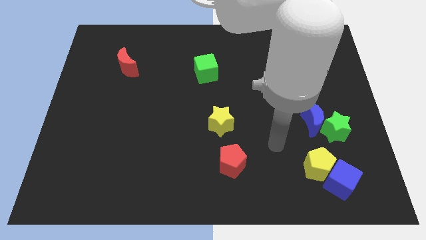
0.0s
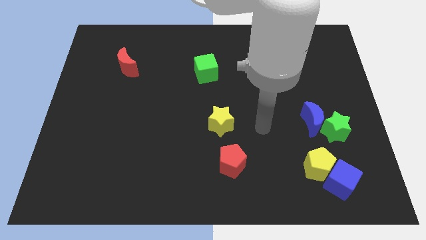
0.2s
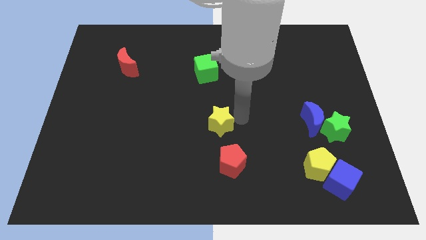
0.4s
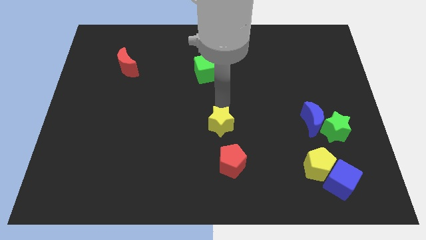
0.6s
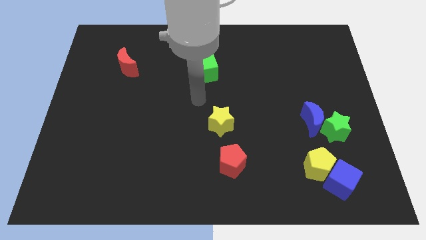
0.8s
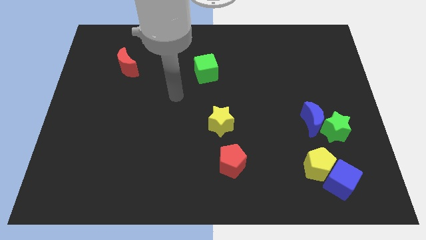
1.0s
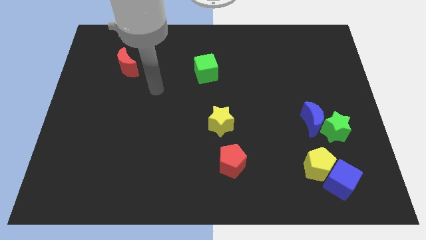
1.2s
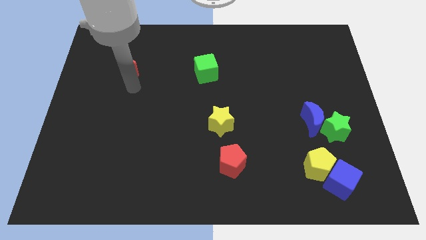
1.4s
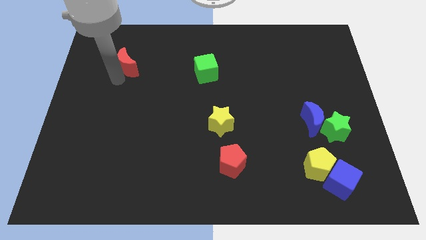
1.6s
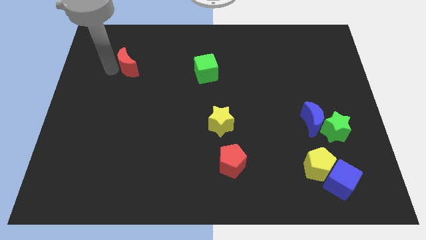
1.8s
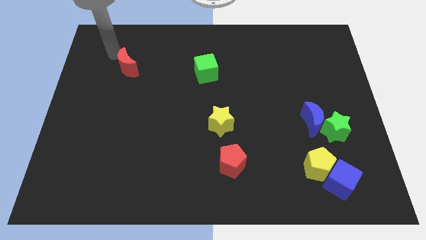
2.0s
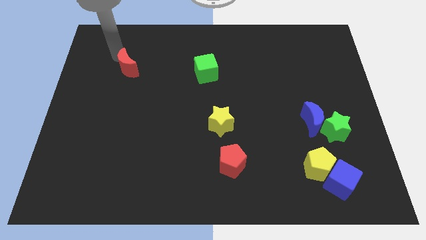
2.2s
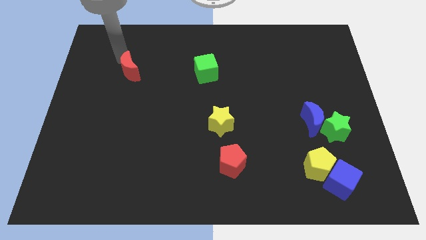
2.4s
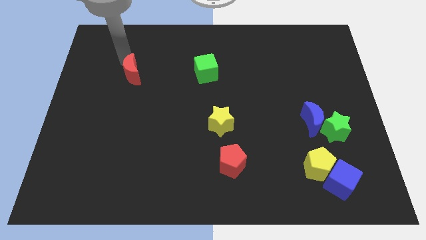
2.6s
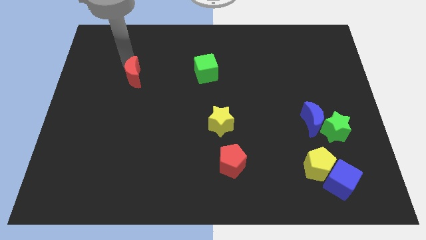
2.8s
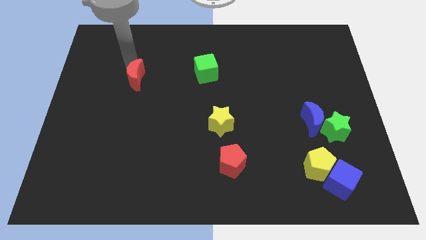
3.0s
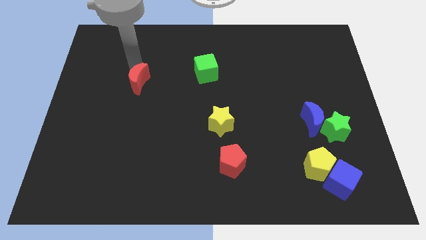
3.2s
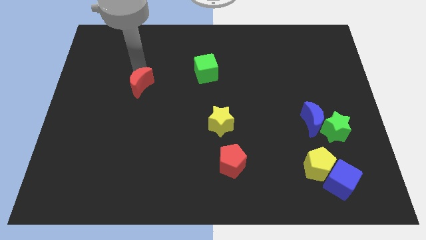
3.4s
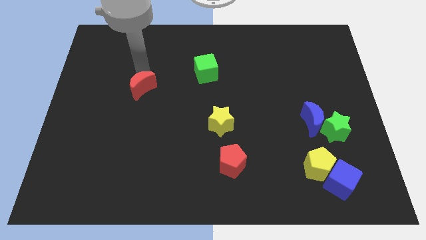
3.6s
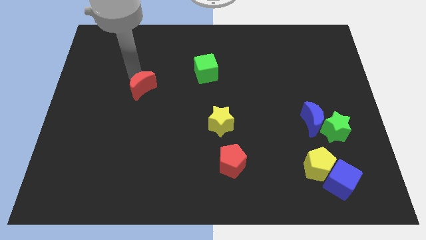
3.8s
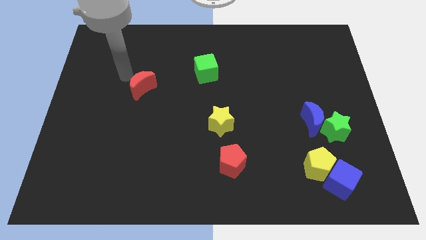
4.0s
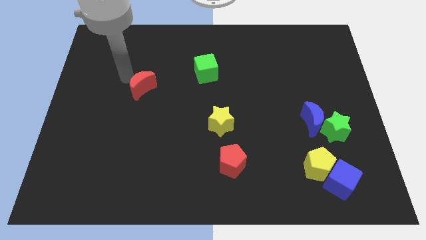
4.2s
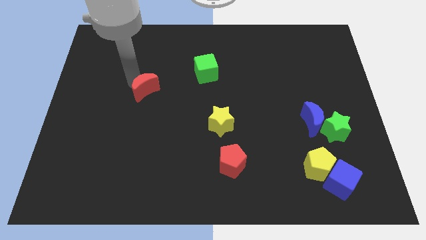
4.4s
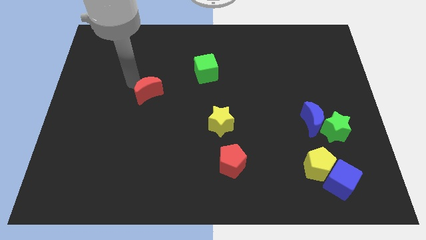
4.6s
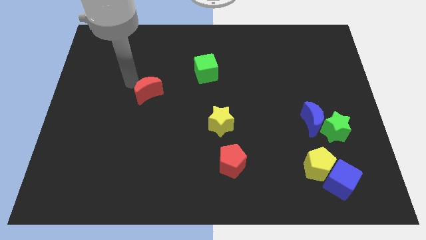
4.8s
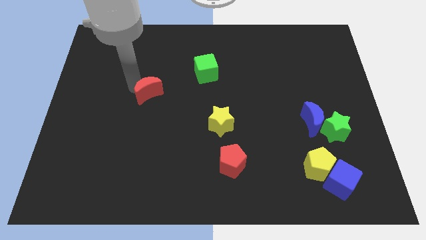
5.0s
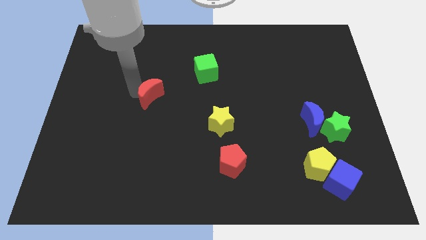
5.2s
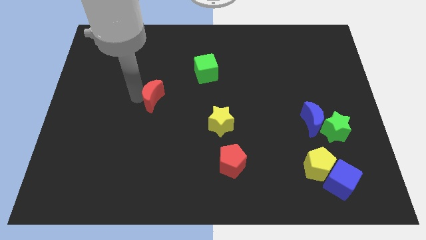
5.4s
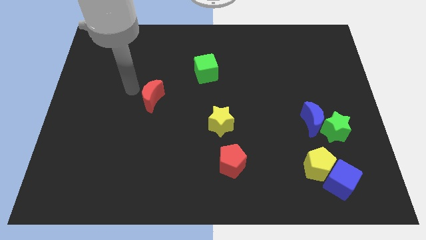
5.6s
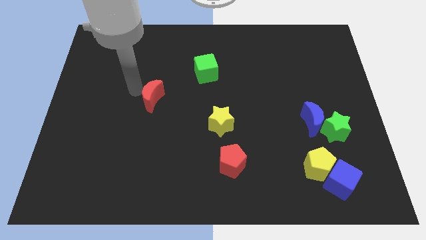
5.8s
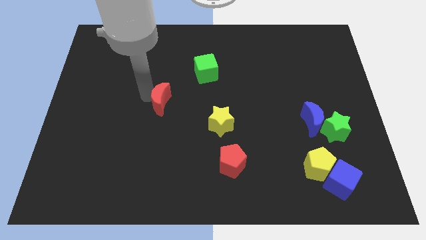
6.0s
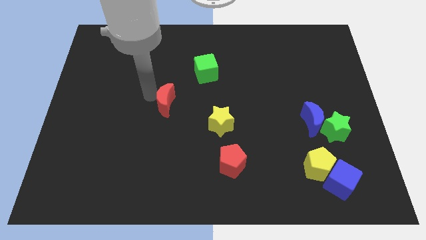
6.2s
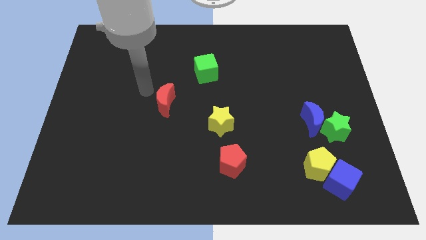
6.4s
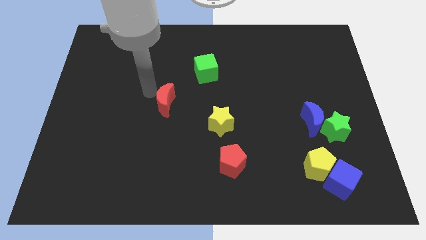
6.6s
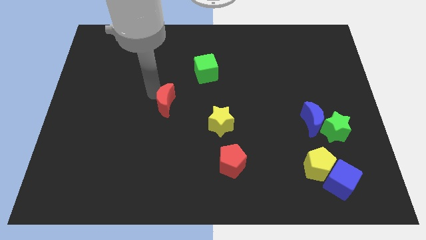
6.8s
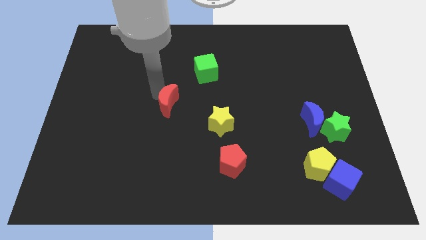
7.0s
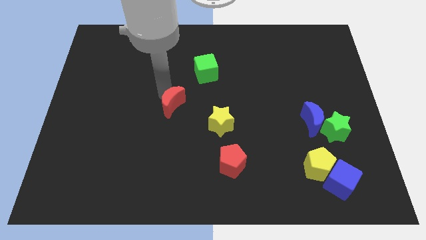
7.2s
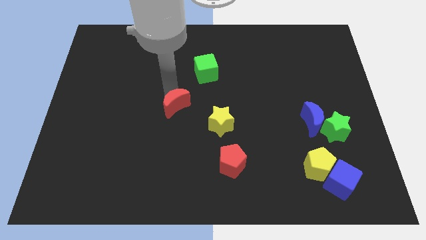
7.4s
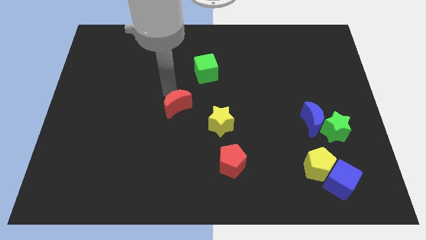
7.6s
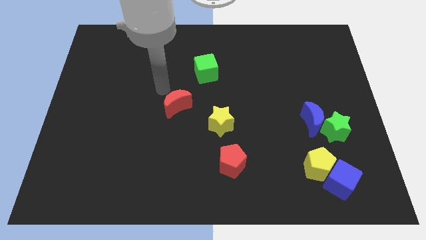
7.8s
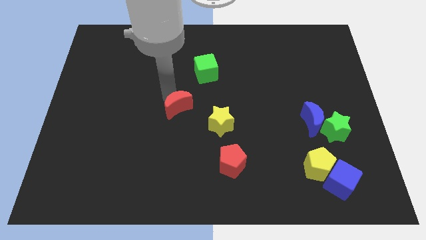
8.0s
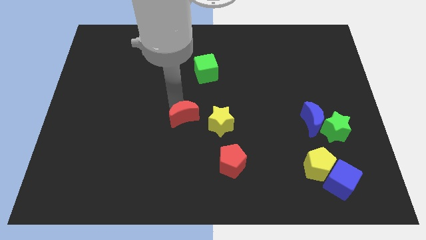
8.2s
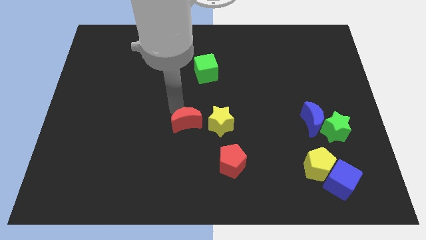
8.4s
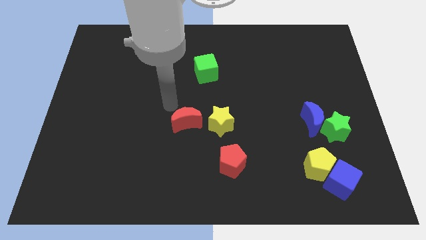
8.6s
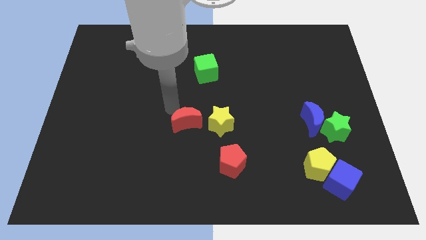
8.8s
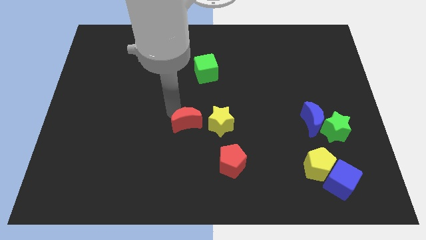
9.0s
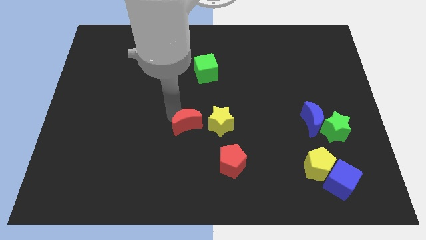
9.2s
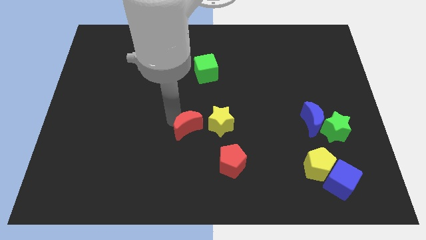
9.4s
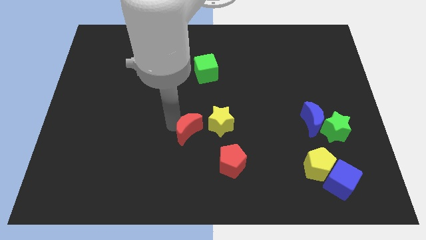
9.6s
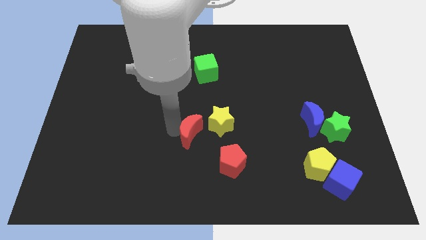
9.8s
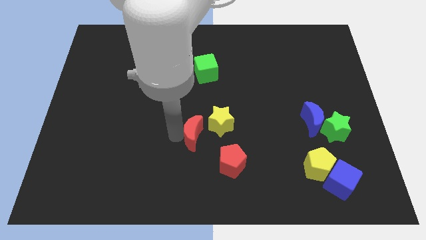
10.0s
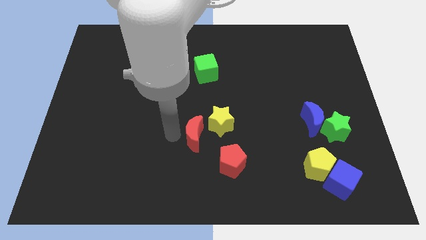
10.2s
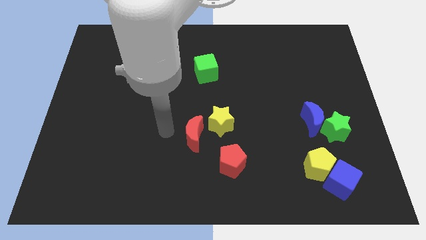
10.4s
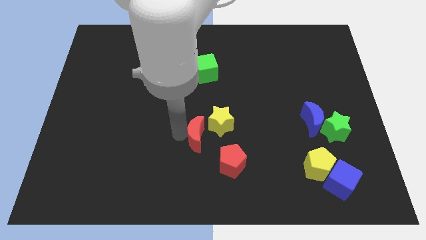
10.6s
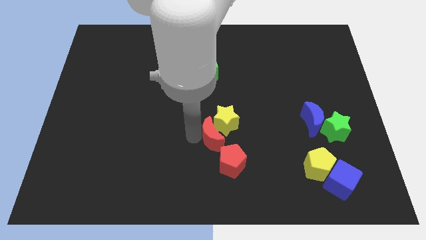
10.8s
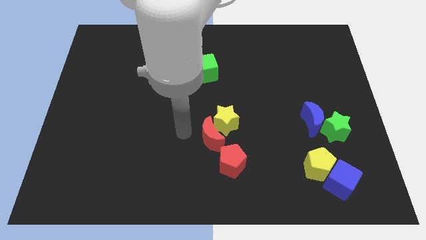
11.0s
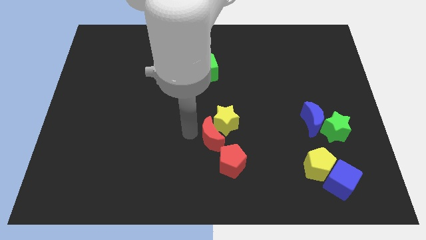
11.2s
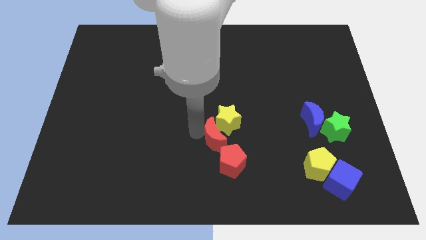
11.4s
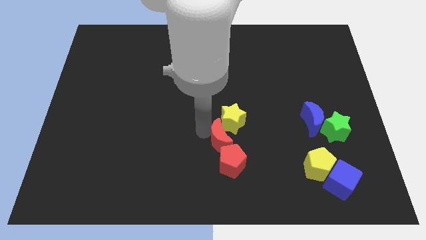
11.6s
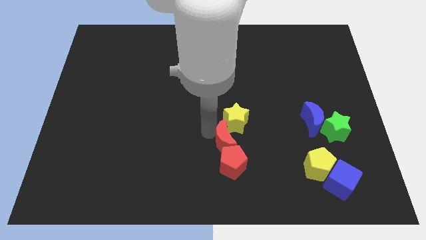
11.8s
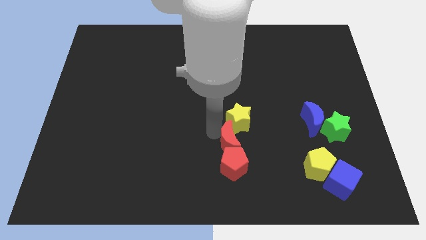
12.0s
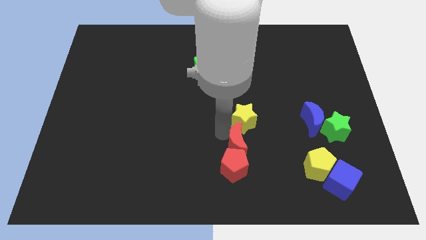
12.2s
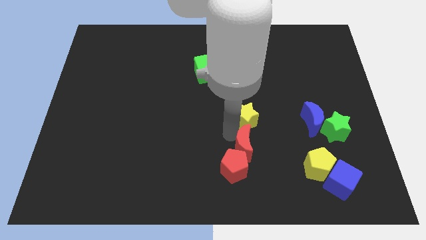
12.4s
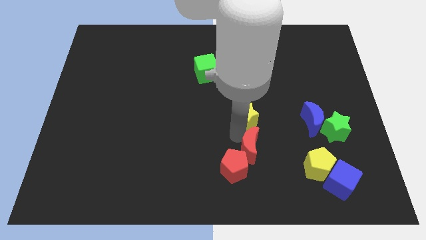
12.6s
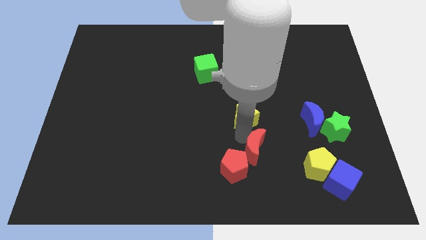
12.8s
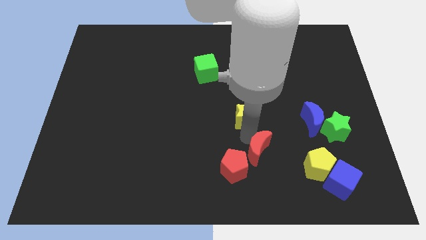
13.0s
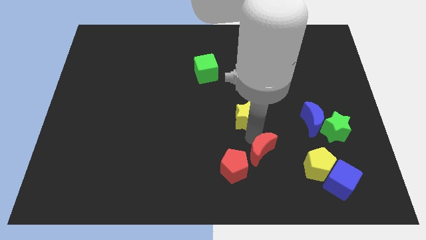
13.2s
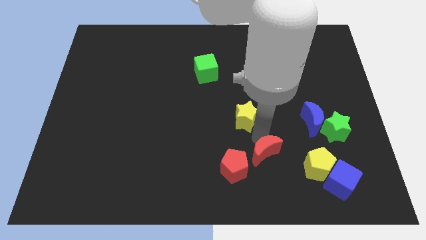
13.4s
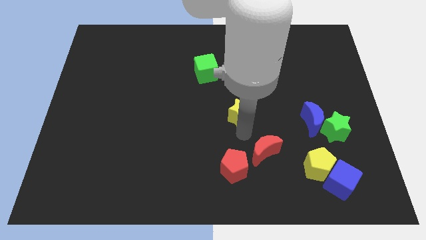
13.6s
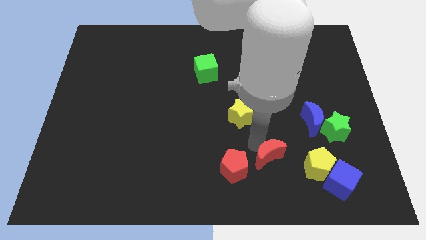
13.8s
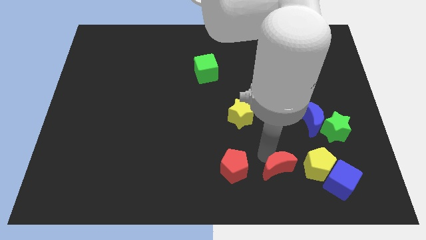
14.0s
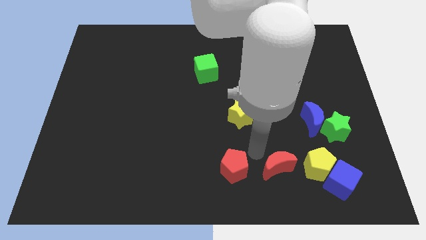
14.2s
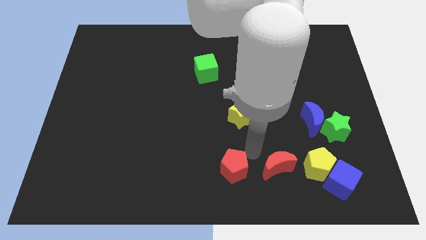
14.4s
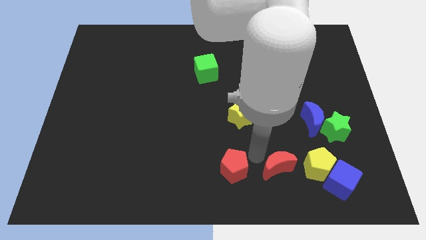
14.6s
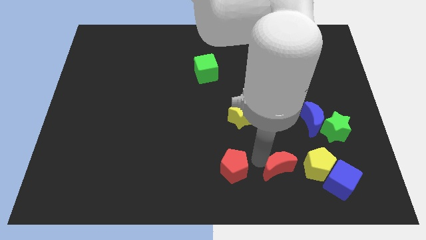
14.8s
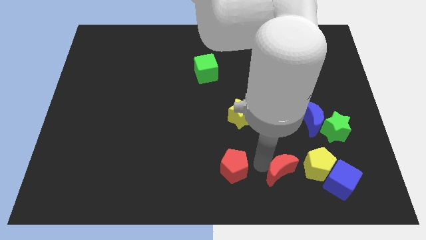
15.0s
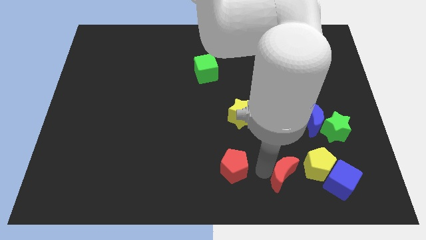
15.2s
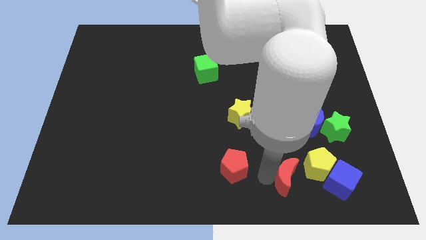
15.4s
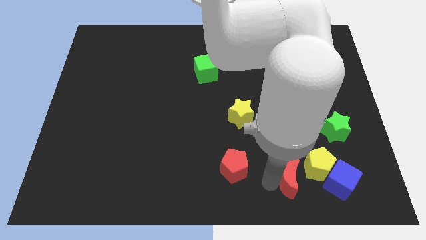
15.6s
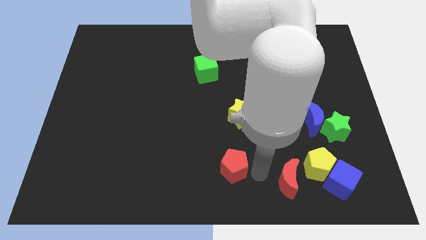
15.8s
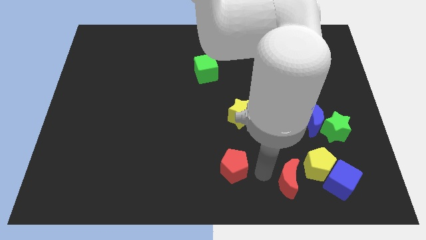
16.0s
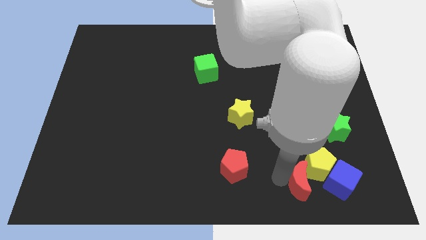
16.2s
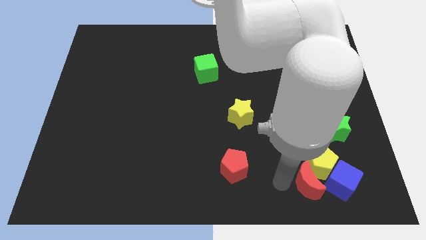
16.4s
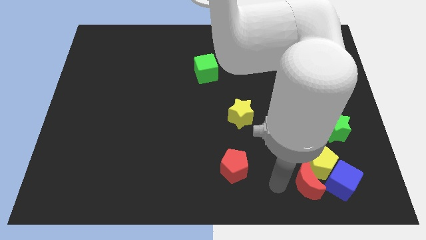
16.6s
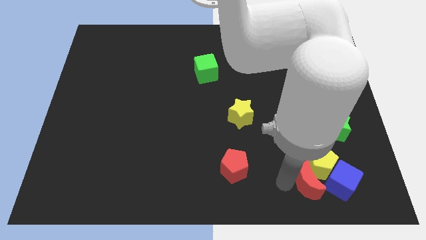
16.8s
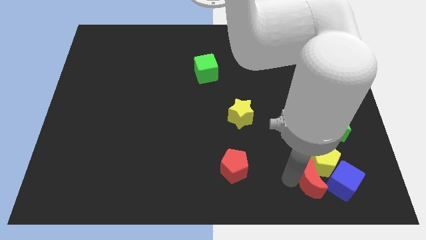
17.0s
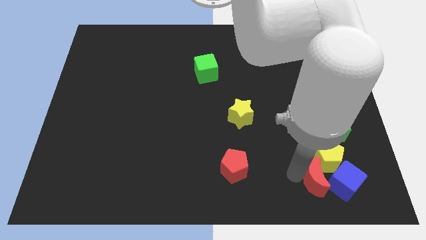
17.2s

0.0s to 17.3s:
slide the red moon next to the blue cube
